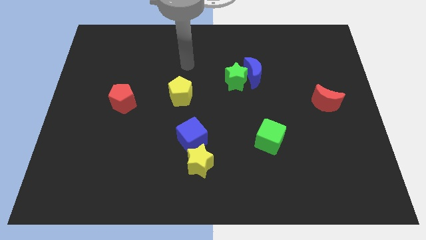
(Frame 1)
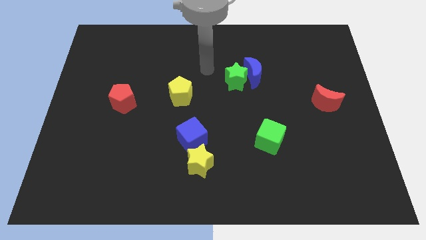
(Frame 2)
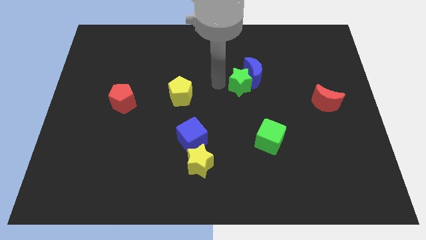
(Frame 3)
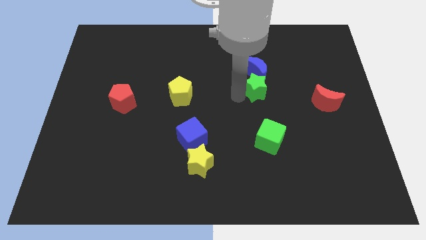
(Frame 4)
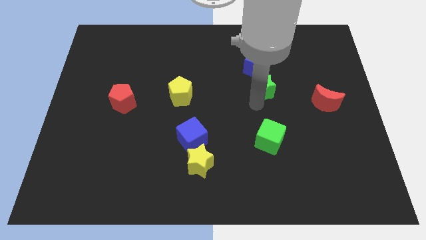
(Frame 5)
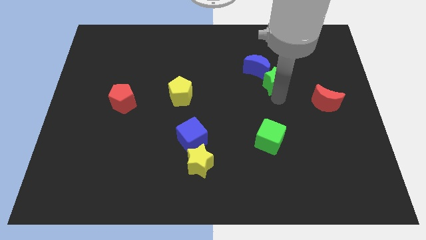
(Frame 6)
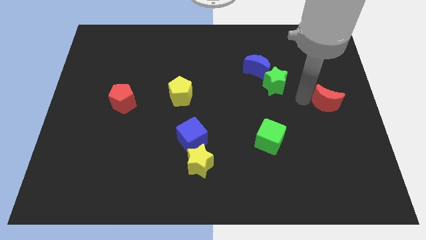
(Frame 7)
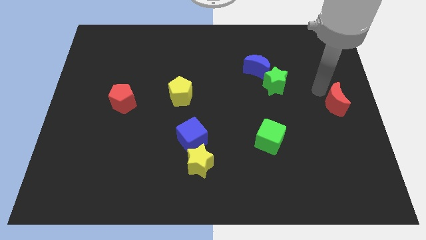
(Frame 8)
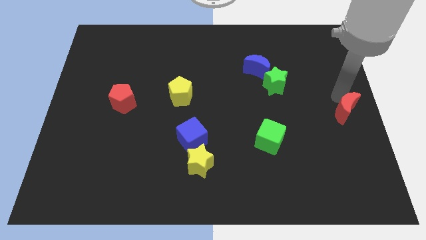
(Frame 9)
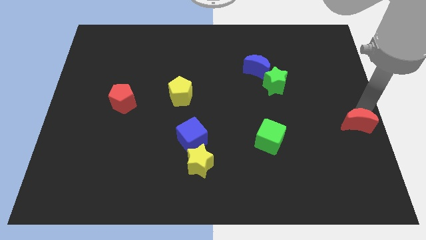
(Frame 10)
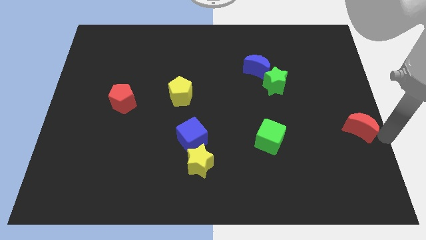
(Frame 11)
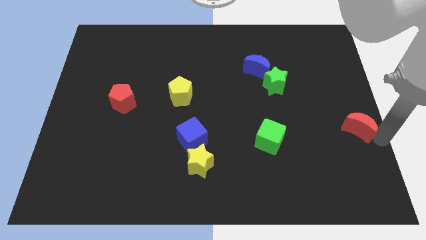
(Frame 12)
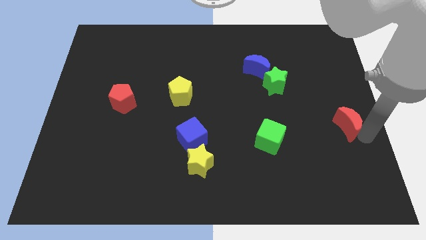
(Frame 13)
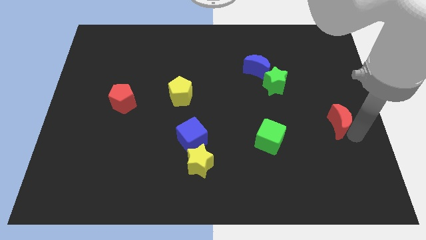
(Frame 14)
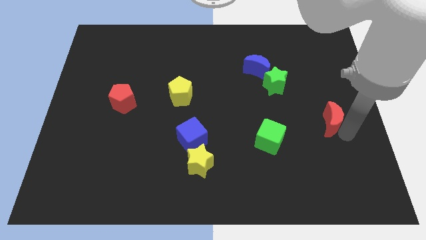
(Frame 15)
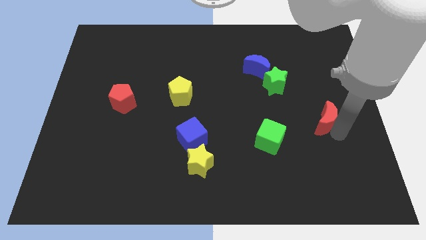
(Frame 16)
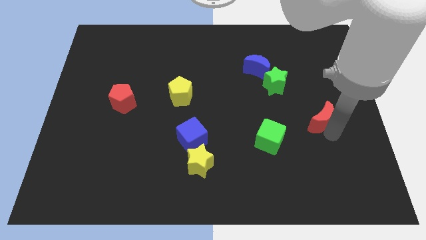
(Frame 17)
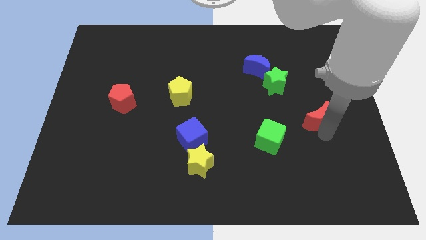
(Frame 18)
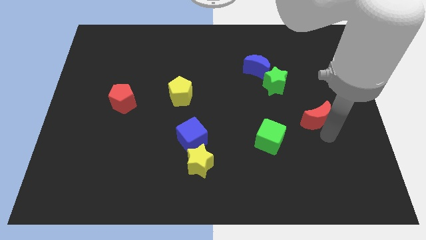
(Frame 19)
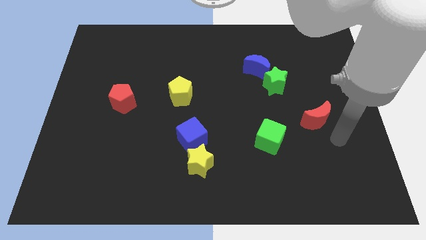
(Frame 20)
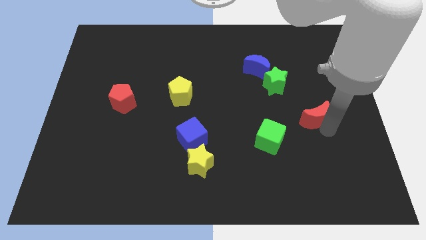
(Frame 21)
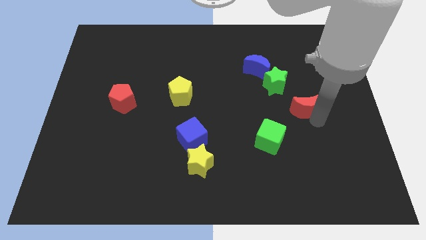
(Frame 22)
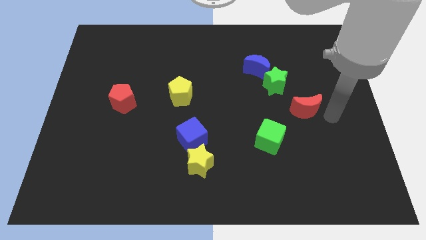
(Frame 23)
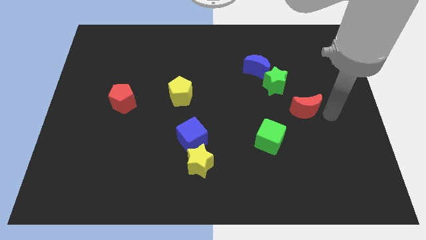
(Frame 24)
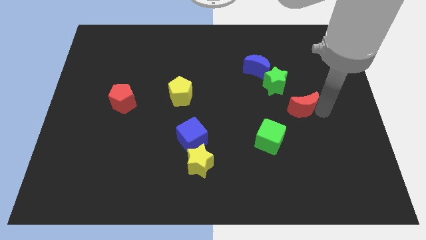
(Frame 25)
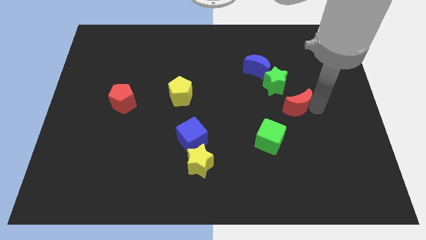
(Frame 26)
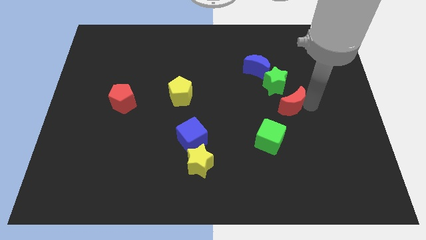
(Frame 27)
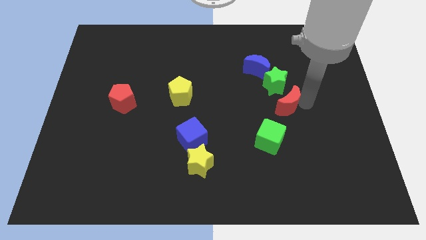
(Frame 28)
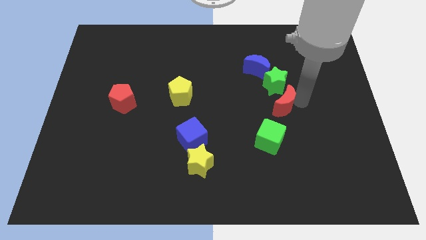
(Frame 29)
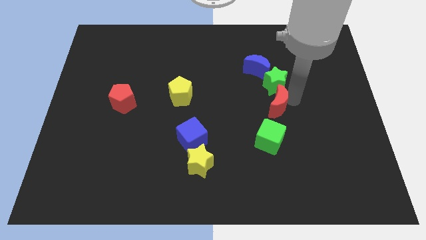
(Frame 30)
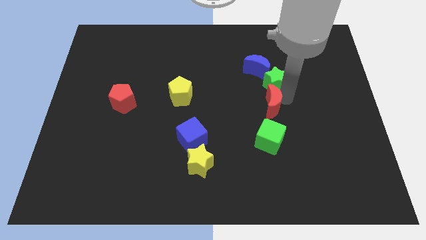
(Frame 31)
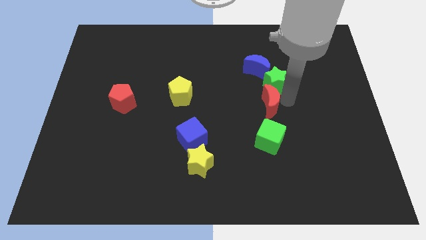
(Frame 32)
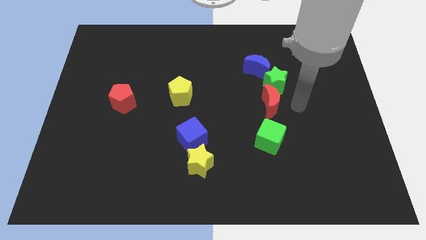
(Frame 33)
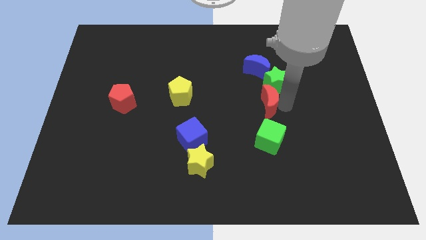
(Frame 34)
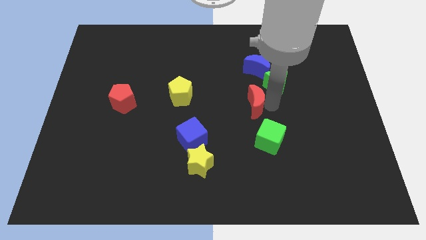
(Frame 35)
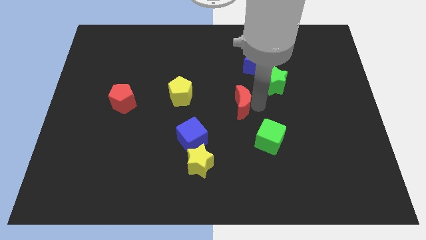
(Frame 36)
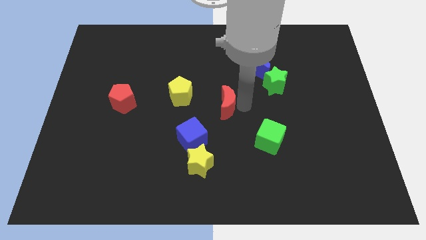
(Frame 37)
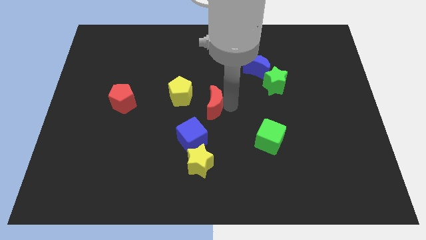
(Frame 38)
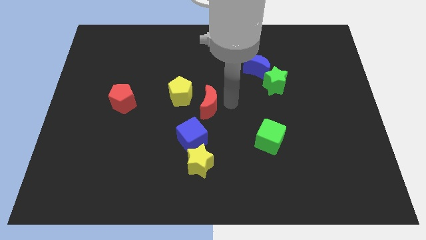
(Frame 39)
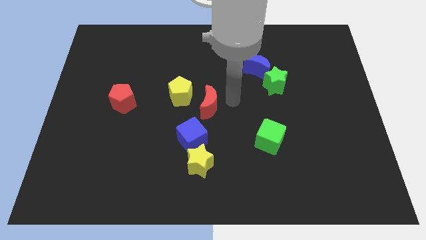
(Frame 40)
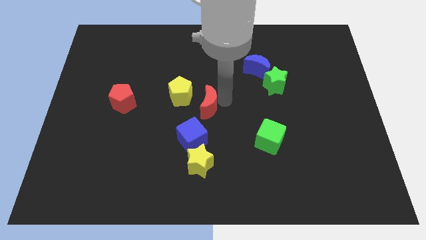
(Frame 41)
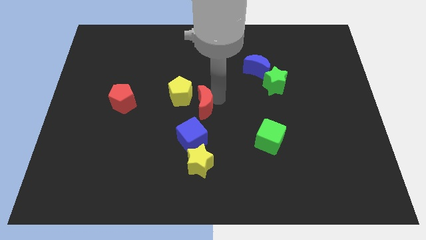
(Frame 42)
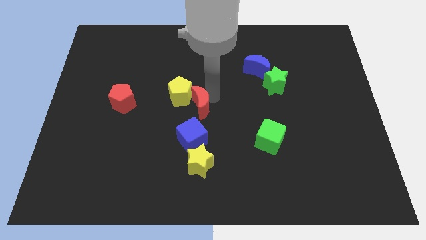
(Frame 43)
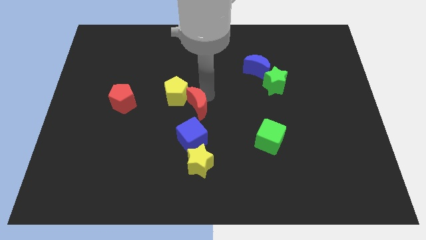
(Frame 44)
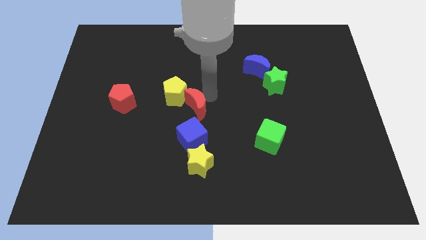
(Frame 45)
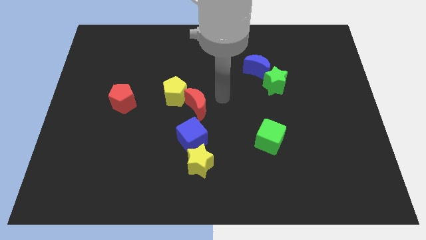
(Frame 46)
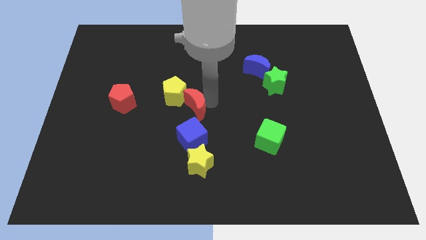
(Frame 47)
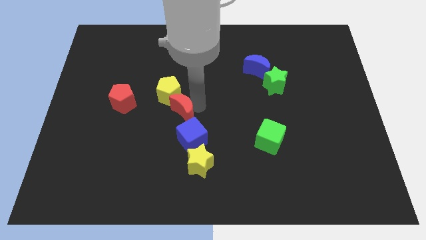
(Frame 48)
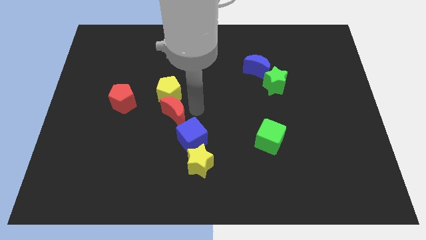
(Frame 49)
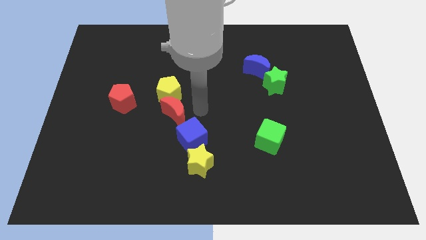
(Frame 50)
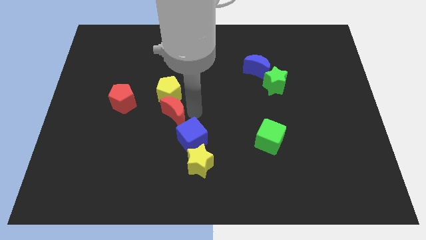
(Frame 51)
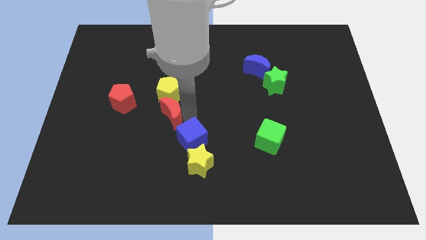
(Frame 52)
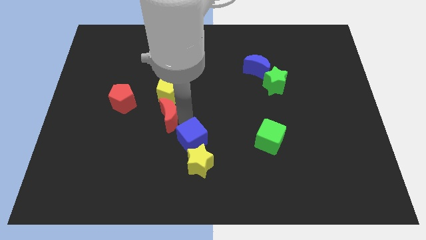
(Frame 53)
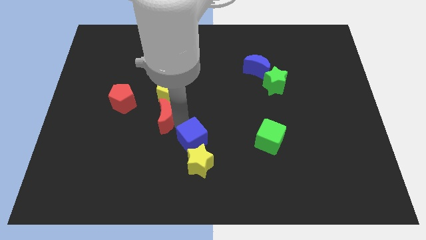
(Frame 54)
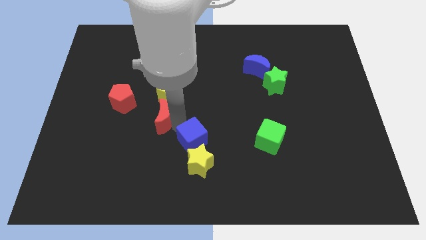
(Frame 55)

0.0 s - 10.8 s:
move the red moon to the bottom right side of the red pentagon

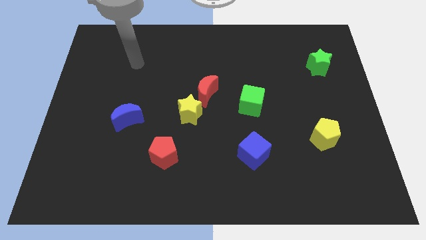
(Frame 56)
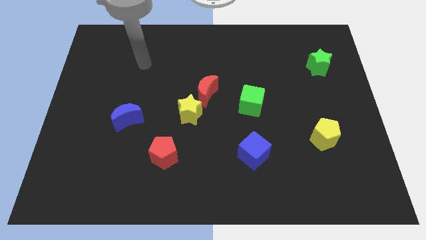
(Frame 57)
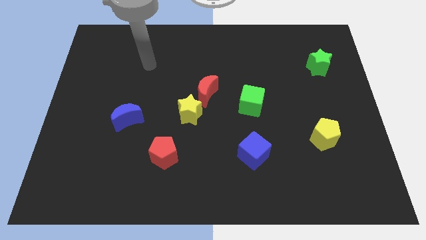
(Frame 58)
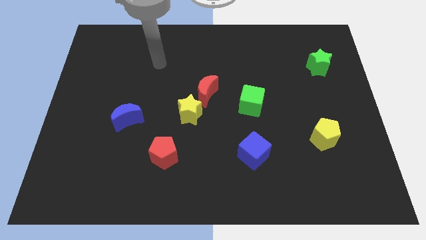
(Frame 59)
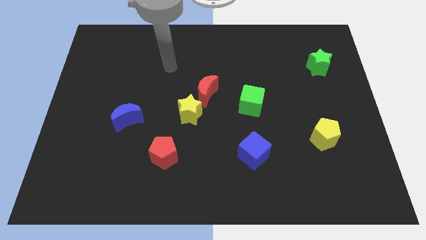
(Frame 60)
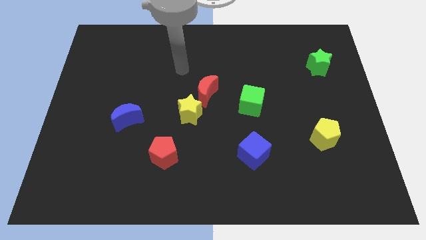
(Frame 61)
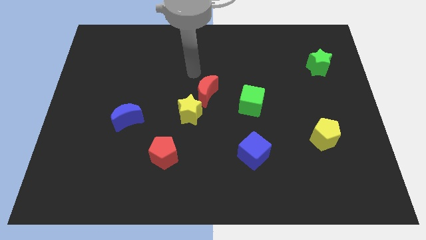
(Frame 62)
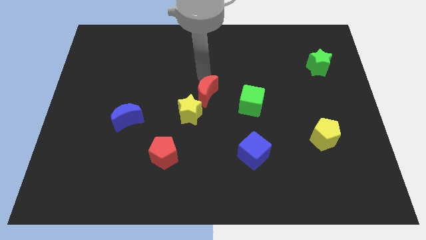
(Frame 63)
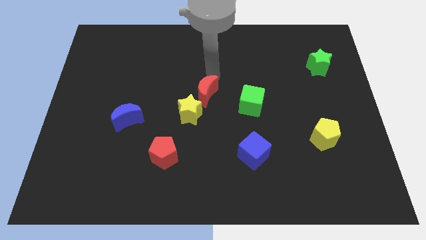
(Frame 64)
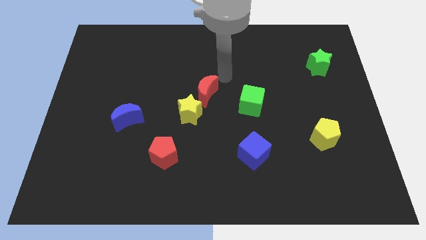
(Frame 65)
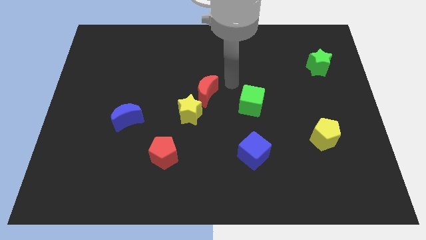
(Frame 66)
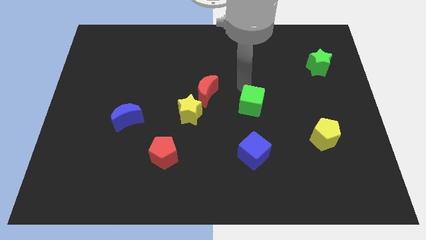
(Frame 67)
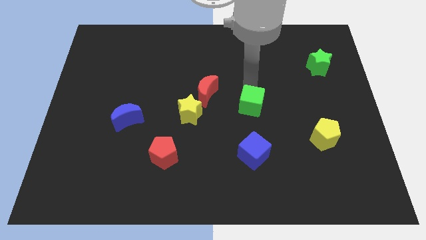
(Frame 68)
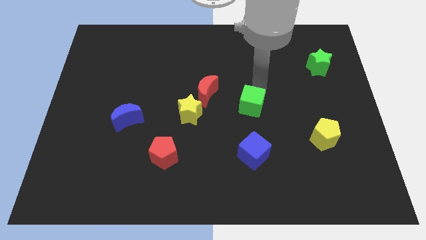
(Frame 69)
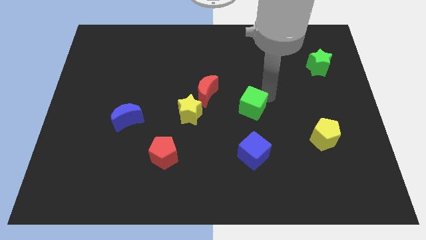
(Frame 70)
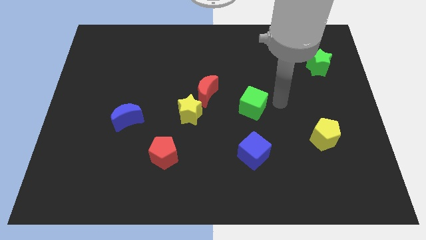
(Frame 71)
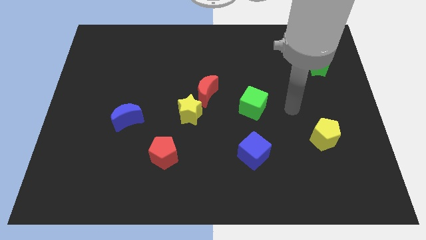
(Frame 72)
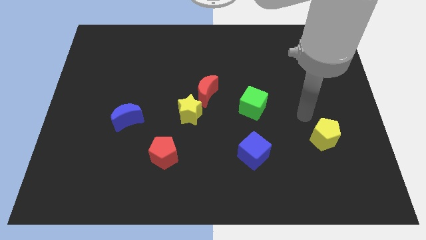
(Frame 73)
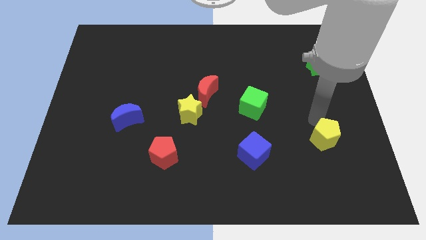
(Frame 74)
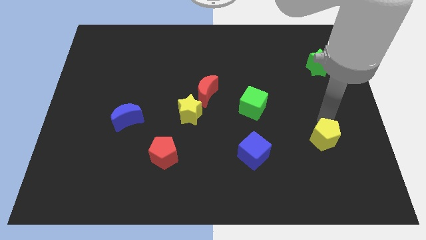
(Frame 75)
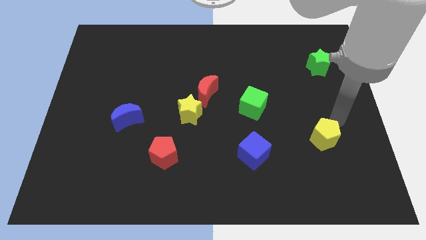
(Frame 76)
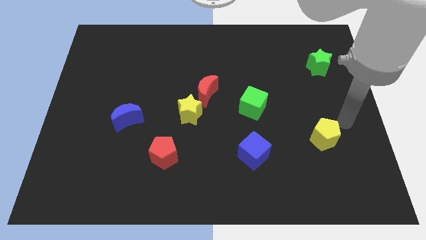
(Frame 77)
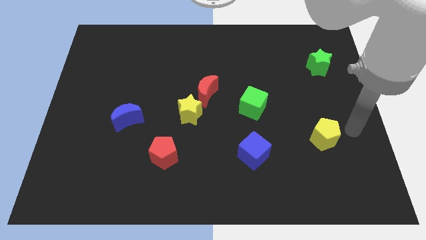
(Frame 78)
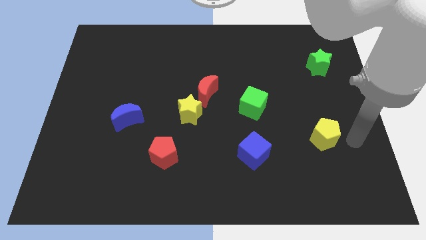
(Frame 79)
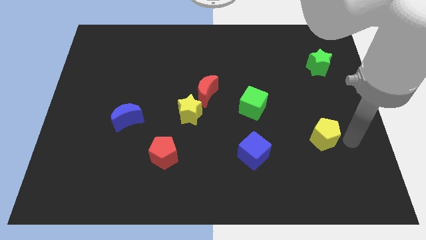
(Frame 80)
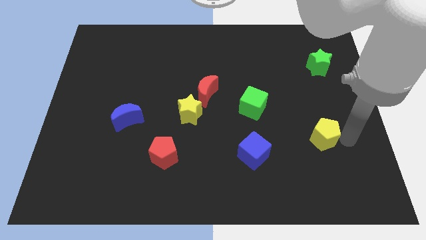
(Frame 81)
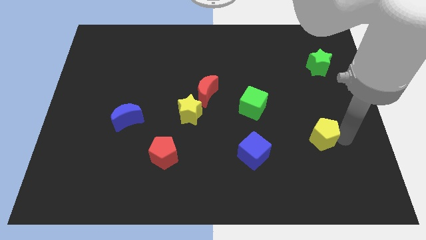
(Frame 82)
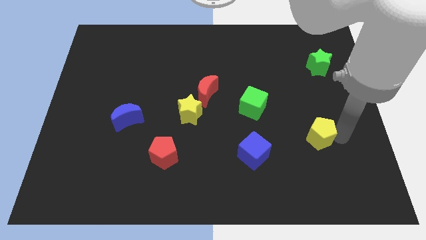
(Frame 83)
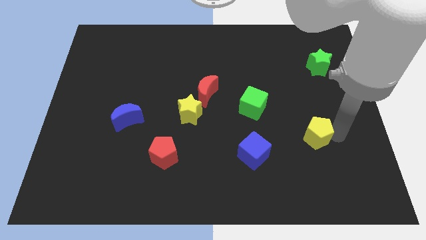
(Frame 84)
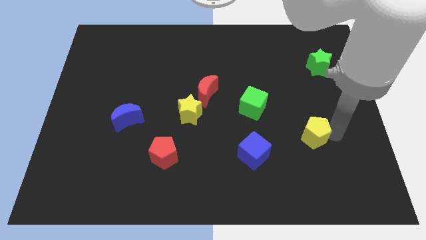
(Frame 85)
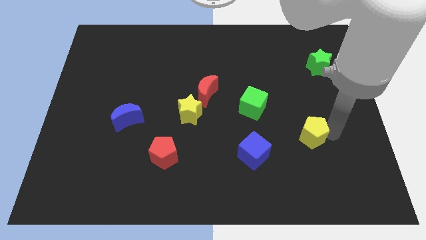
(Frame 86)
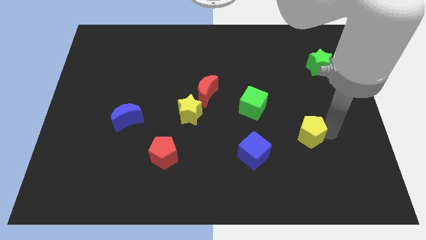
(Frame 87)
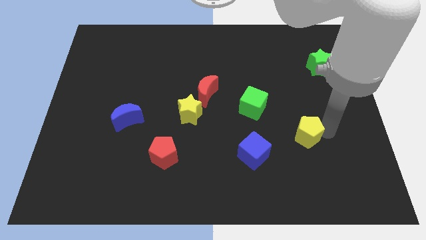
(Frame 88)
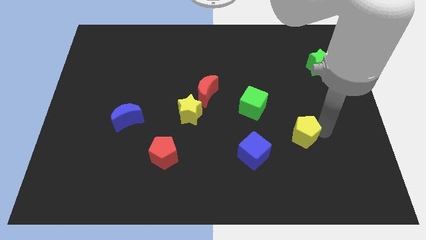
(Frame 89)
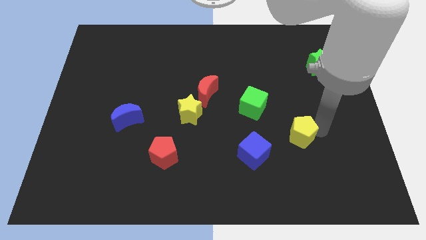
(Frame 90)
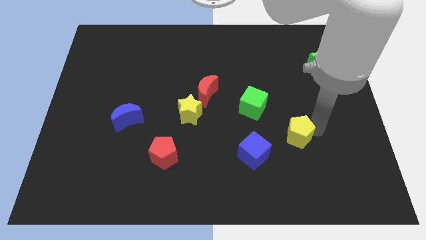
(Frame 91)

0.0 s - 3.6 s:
slide the yellow pentagon to the top right of the blue cube
